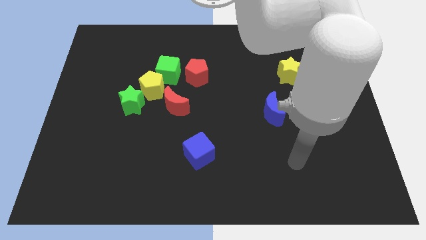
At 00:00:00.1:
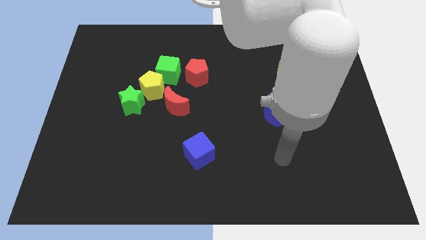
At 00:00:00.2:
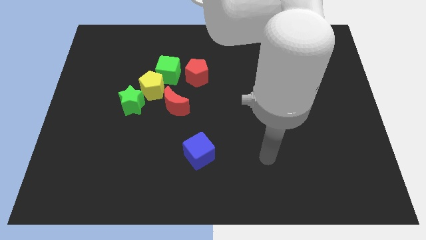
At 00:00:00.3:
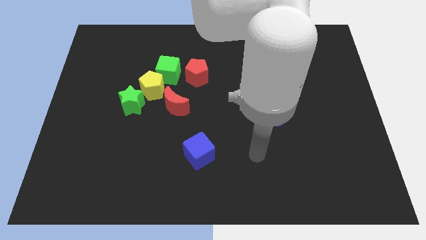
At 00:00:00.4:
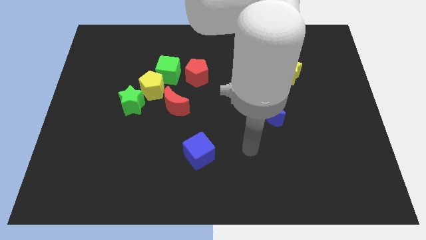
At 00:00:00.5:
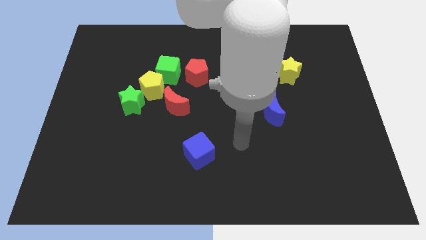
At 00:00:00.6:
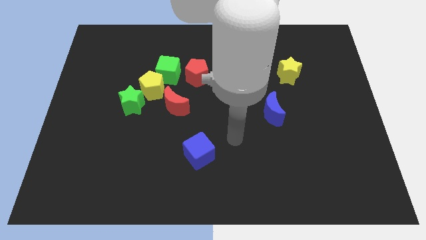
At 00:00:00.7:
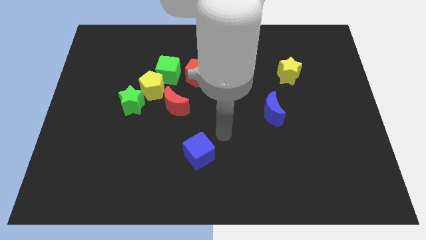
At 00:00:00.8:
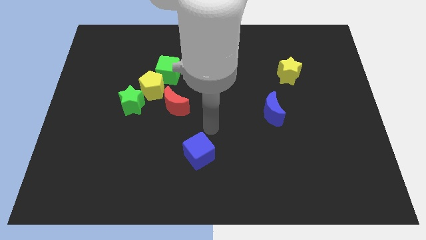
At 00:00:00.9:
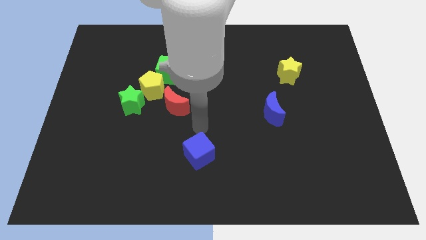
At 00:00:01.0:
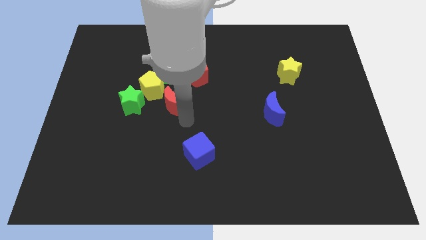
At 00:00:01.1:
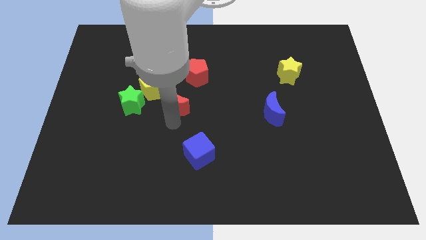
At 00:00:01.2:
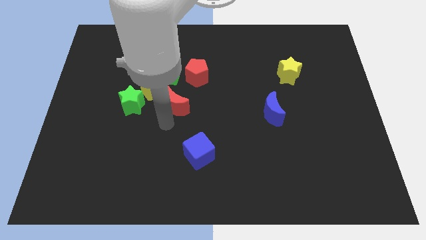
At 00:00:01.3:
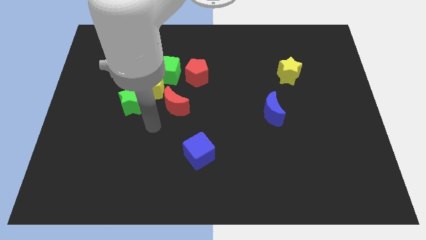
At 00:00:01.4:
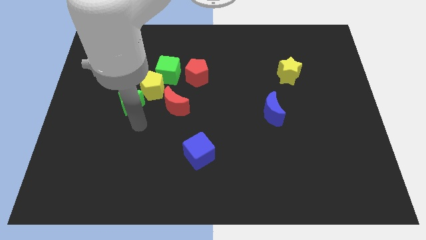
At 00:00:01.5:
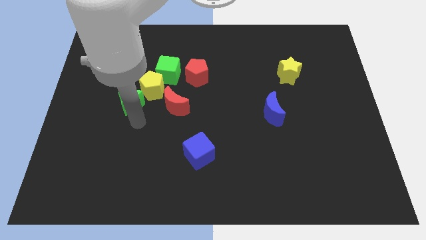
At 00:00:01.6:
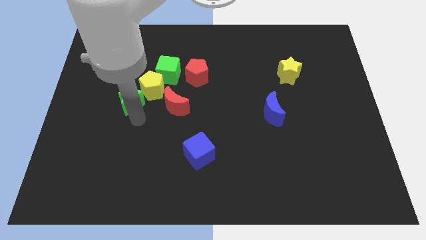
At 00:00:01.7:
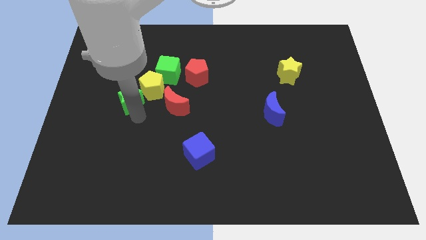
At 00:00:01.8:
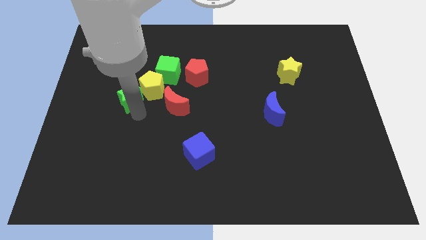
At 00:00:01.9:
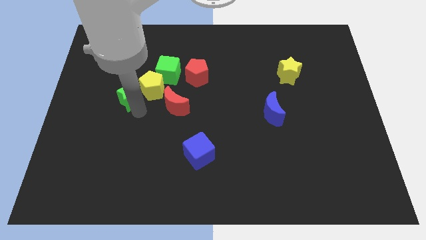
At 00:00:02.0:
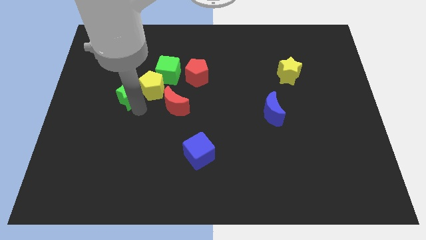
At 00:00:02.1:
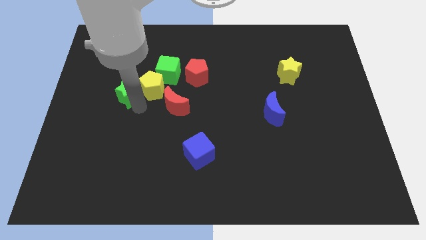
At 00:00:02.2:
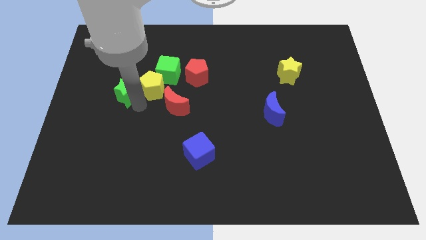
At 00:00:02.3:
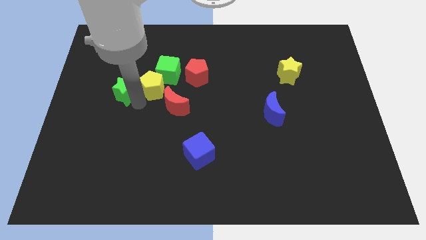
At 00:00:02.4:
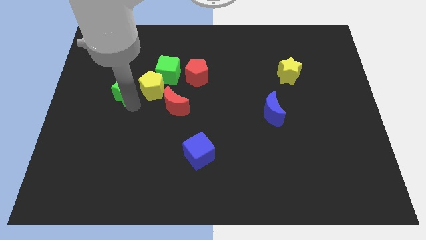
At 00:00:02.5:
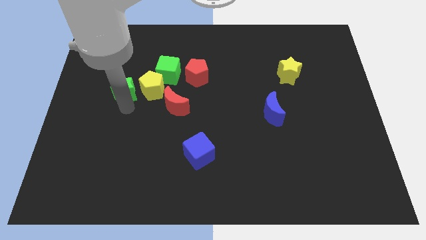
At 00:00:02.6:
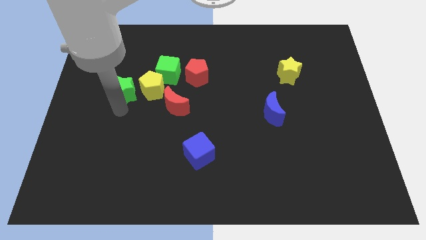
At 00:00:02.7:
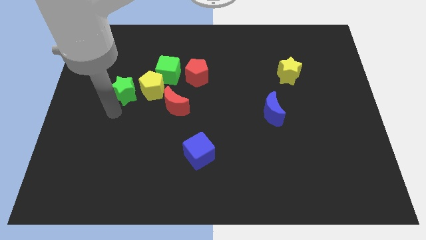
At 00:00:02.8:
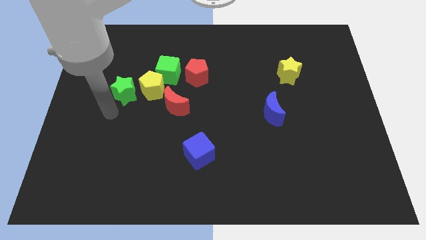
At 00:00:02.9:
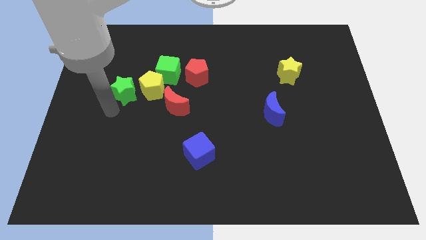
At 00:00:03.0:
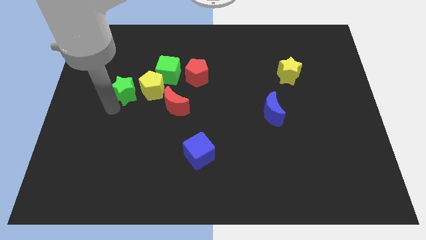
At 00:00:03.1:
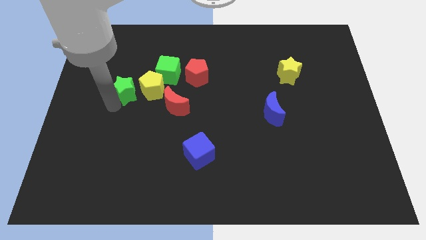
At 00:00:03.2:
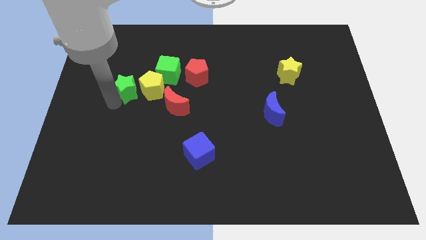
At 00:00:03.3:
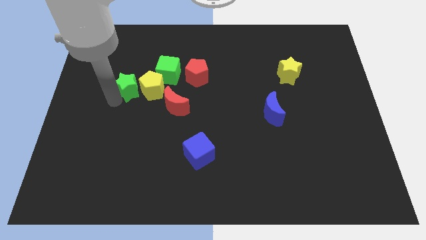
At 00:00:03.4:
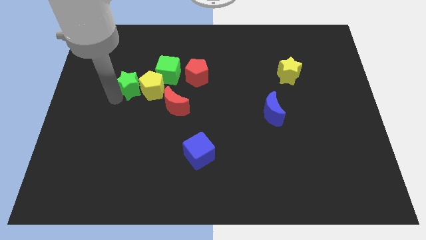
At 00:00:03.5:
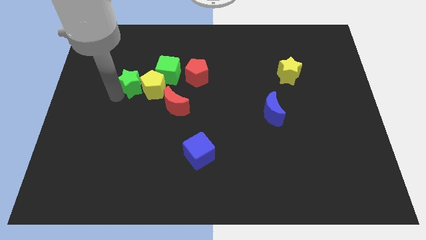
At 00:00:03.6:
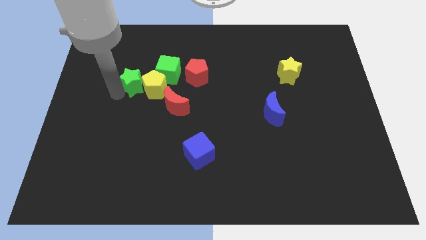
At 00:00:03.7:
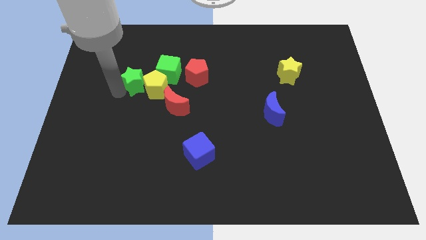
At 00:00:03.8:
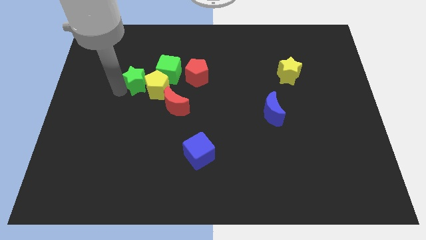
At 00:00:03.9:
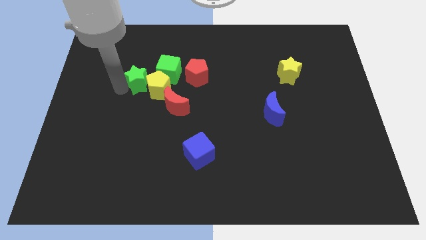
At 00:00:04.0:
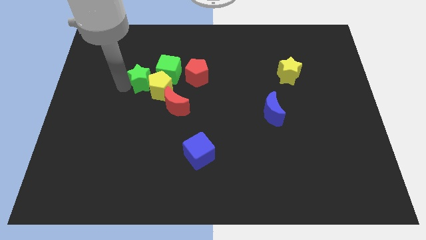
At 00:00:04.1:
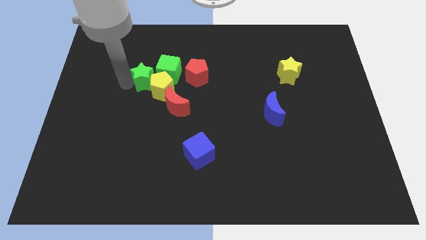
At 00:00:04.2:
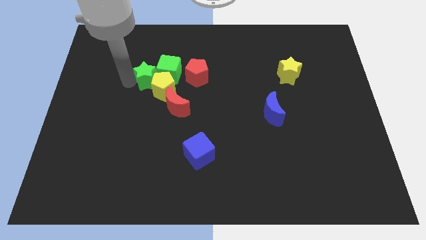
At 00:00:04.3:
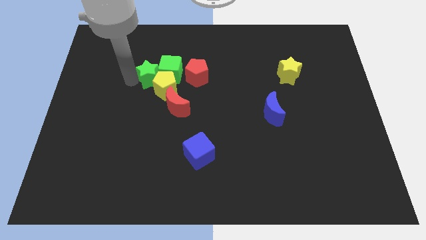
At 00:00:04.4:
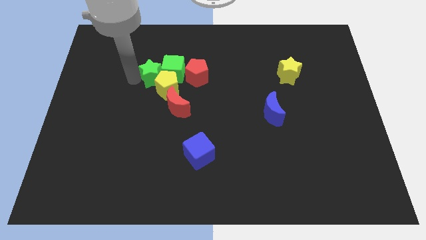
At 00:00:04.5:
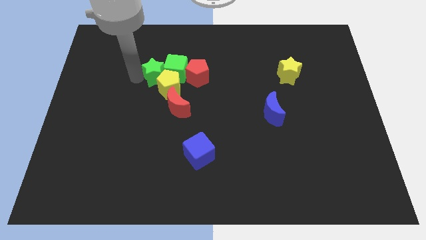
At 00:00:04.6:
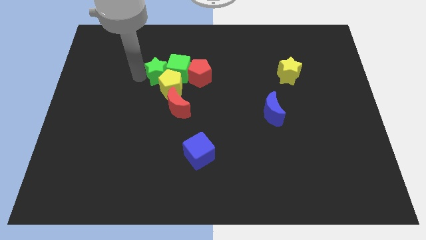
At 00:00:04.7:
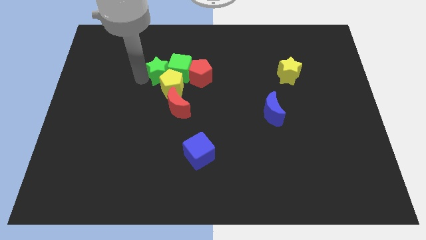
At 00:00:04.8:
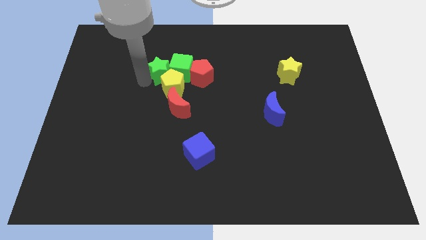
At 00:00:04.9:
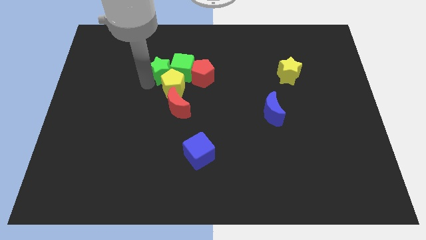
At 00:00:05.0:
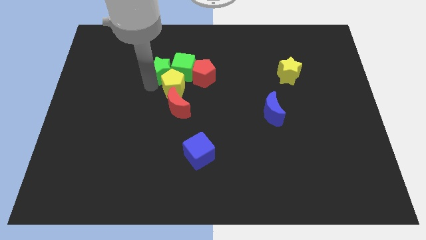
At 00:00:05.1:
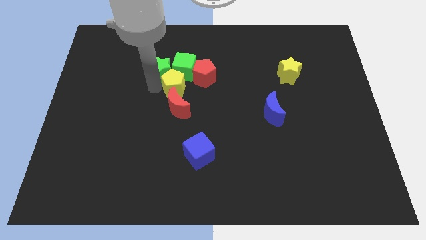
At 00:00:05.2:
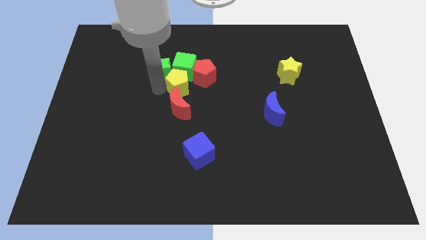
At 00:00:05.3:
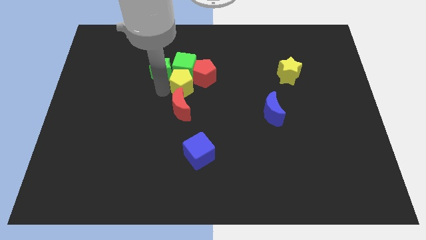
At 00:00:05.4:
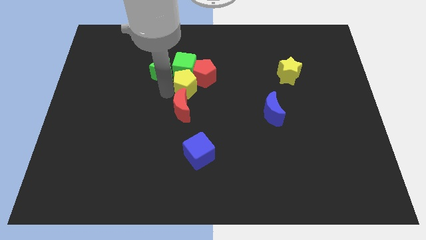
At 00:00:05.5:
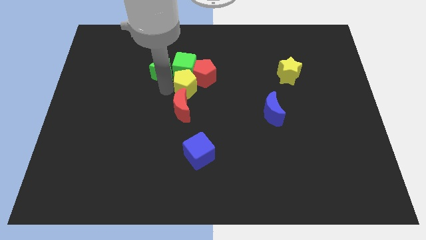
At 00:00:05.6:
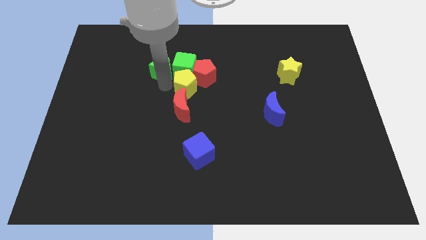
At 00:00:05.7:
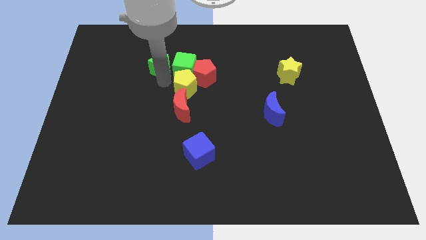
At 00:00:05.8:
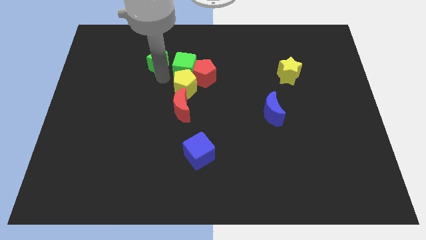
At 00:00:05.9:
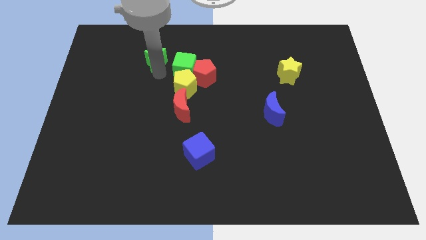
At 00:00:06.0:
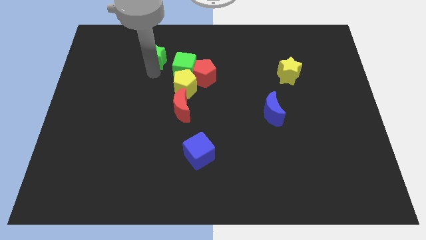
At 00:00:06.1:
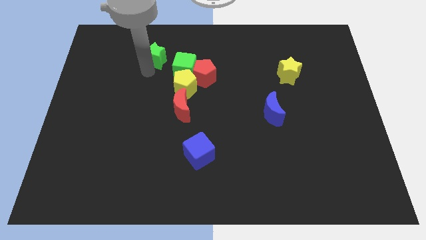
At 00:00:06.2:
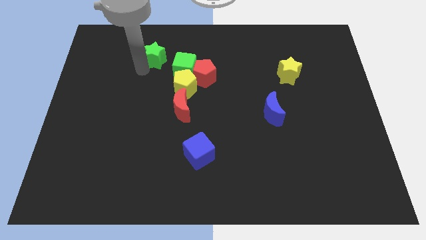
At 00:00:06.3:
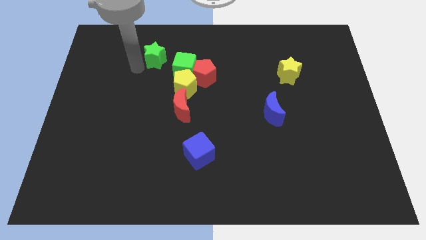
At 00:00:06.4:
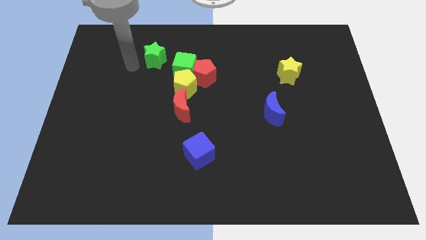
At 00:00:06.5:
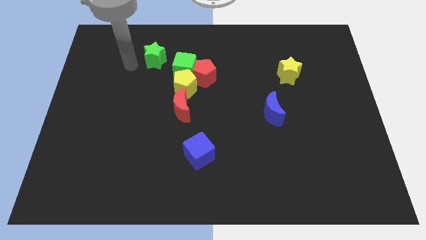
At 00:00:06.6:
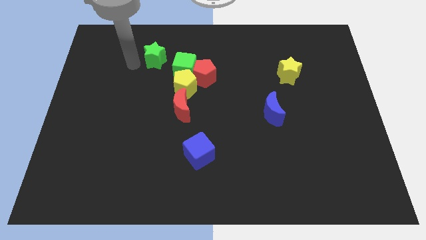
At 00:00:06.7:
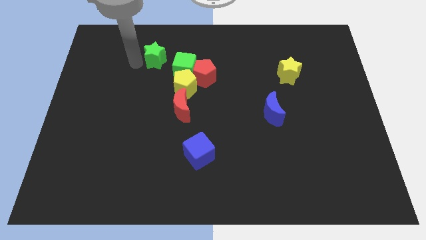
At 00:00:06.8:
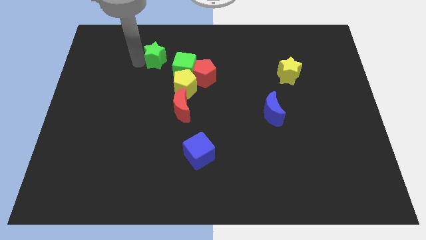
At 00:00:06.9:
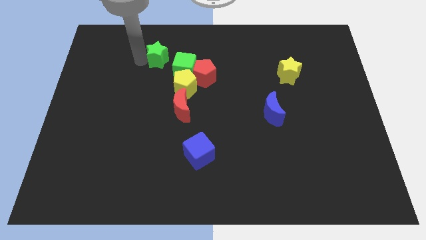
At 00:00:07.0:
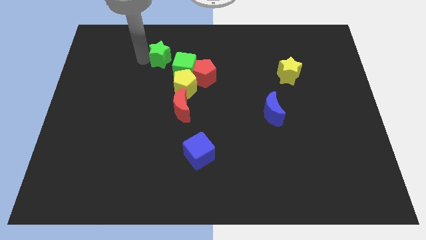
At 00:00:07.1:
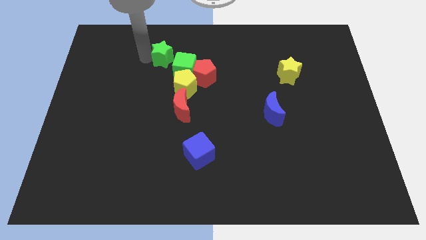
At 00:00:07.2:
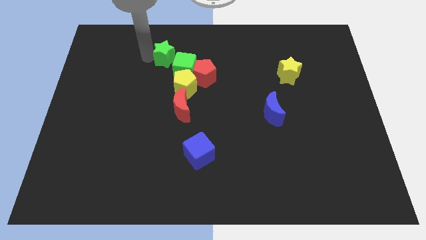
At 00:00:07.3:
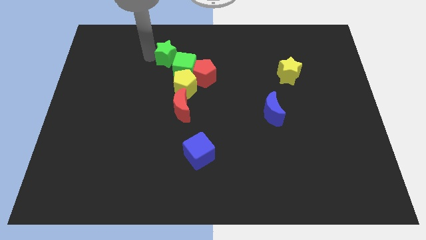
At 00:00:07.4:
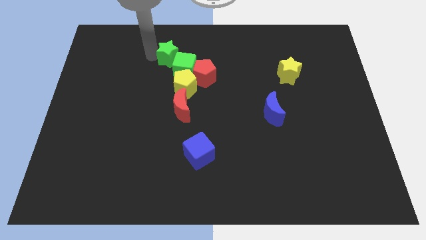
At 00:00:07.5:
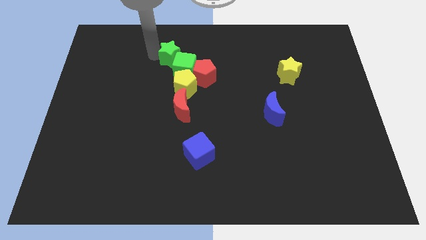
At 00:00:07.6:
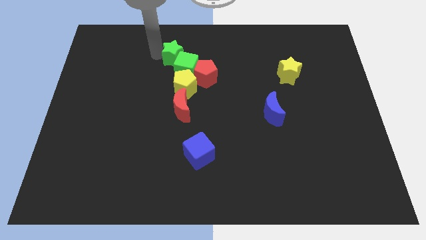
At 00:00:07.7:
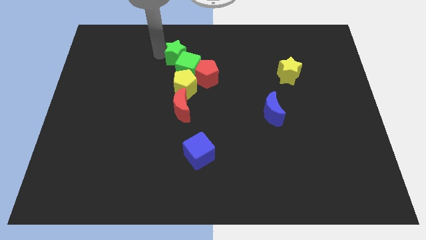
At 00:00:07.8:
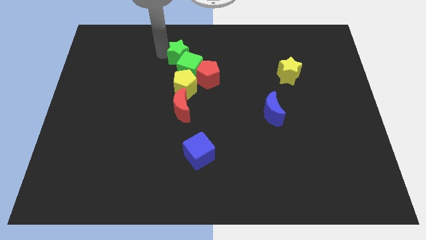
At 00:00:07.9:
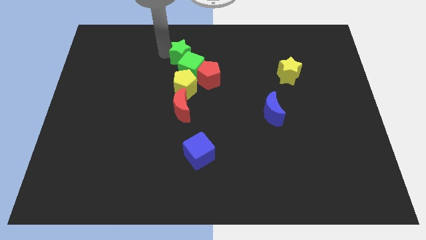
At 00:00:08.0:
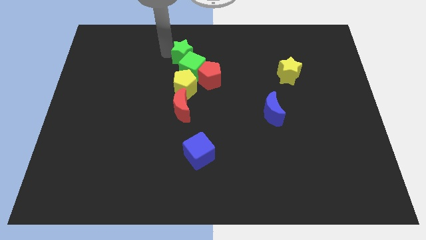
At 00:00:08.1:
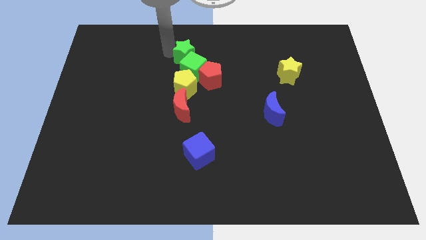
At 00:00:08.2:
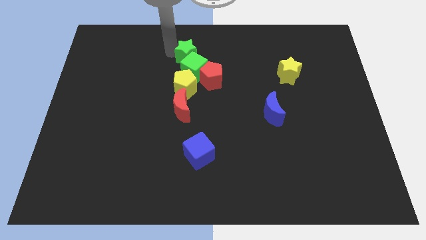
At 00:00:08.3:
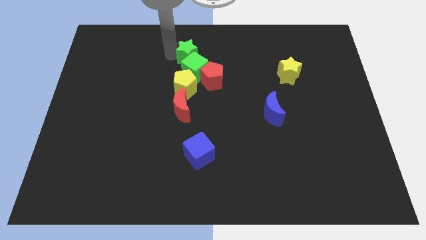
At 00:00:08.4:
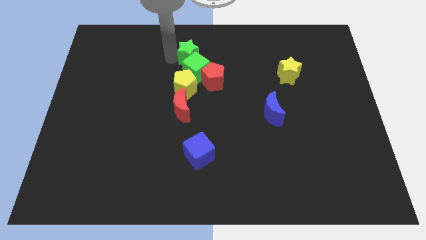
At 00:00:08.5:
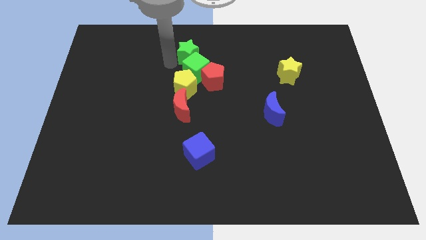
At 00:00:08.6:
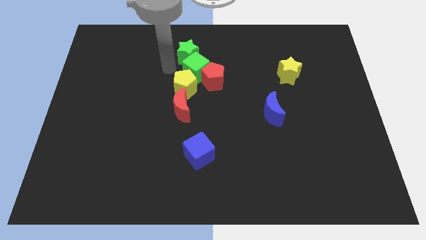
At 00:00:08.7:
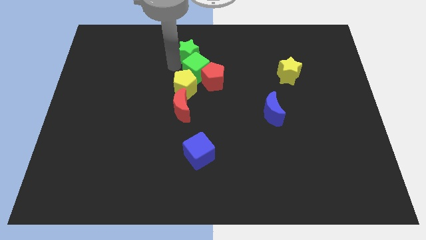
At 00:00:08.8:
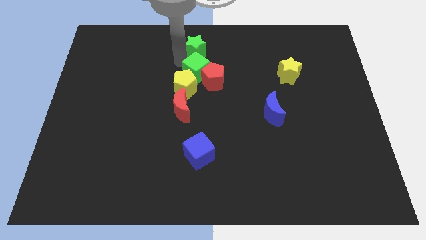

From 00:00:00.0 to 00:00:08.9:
push the green star to the top side
